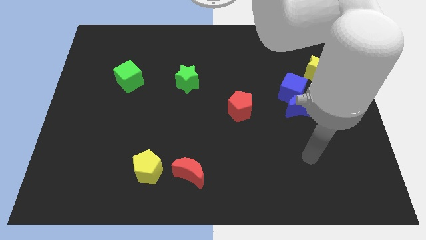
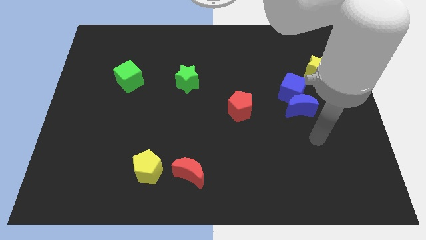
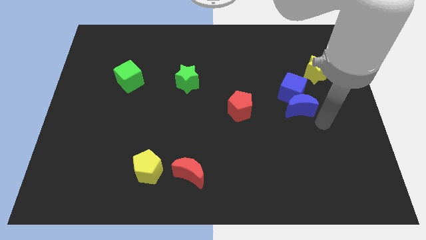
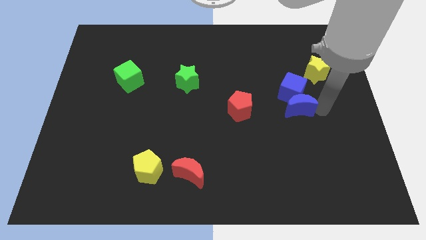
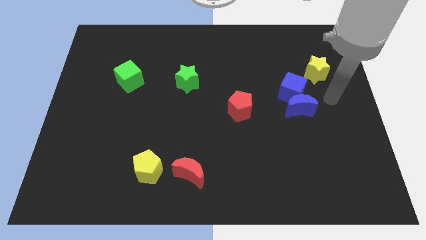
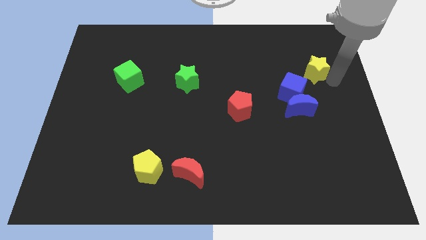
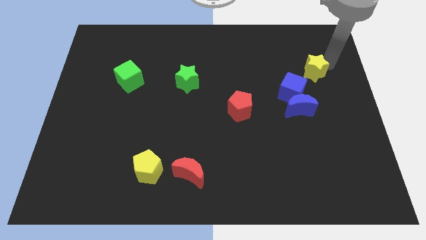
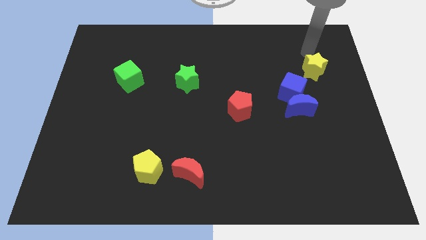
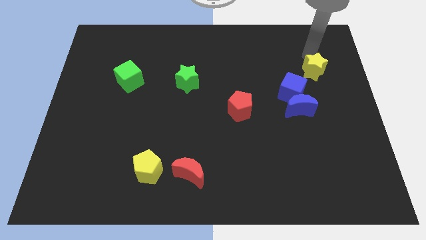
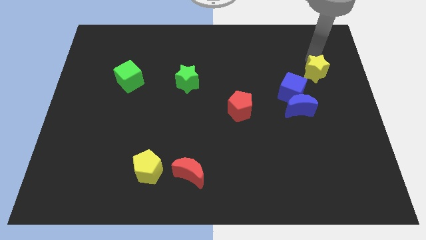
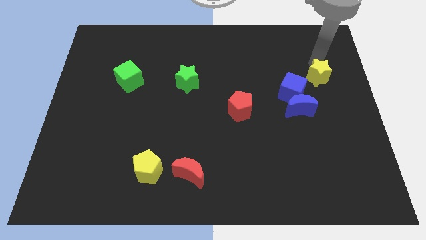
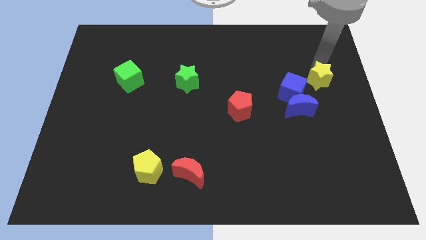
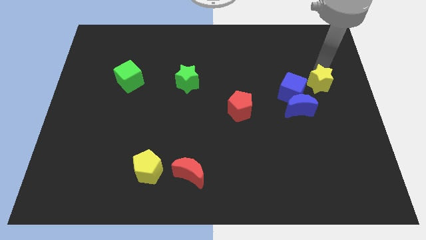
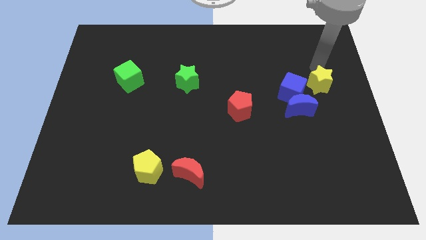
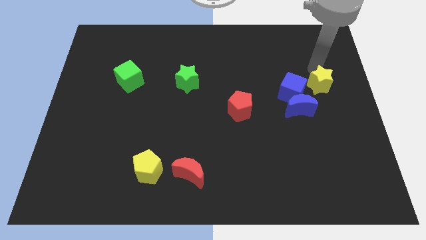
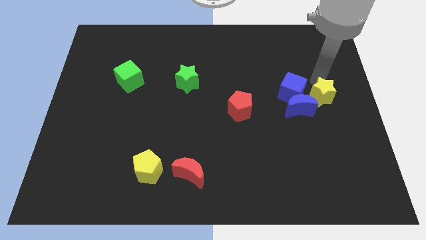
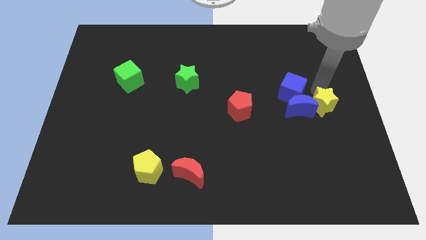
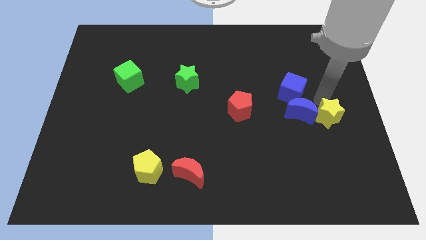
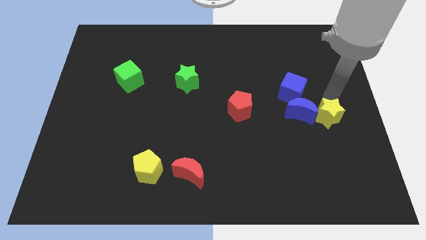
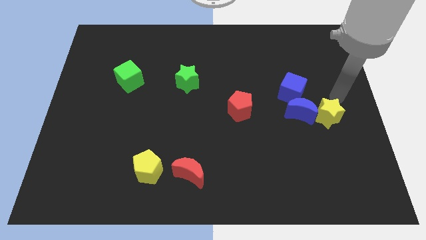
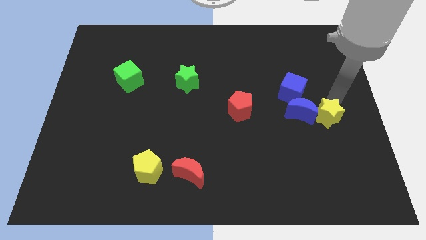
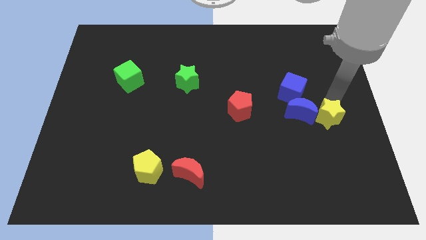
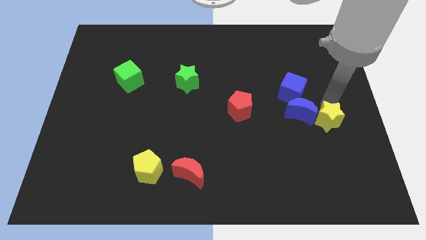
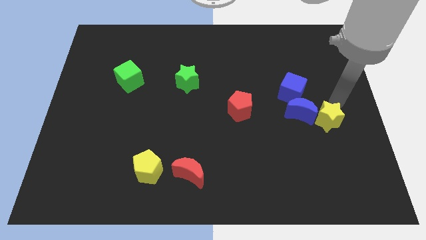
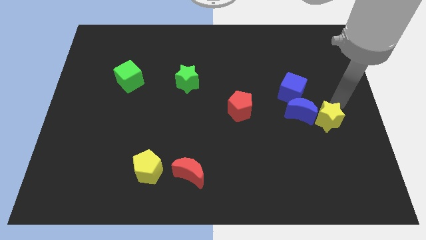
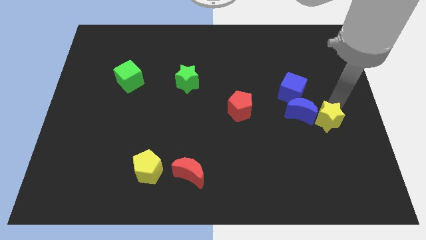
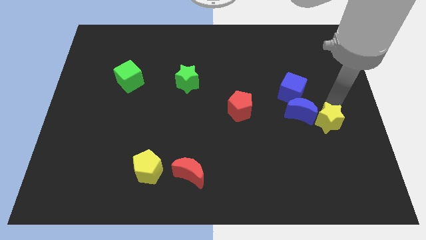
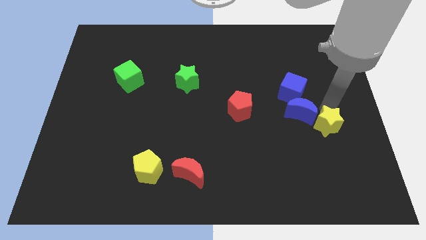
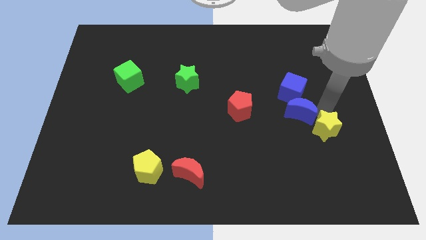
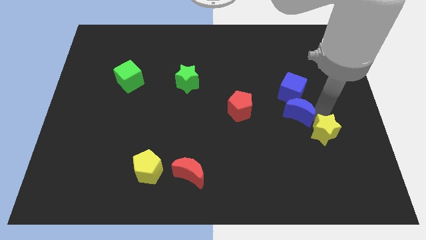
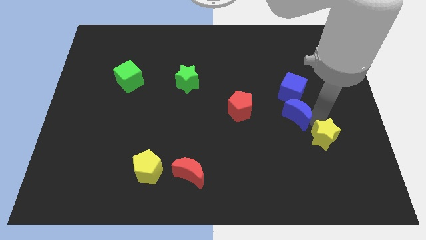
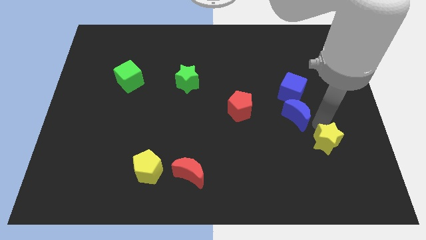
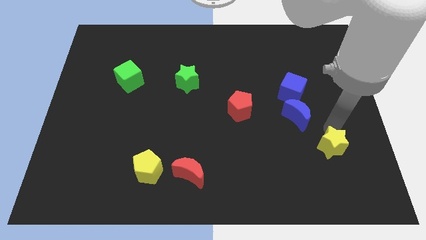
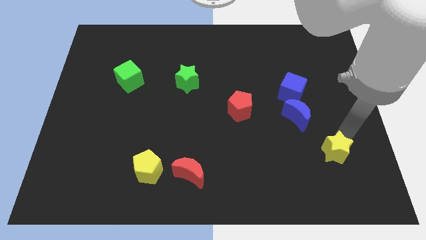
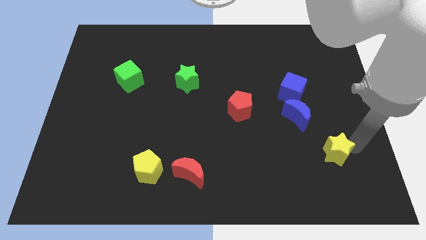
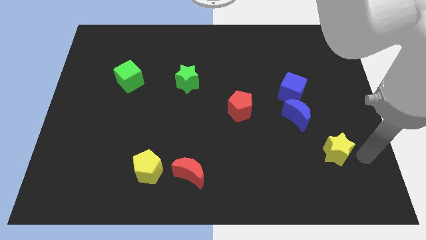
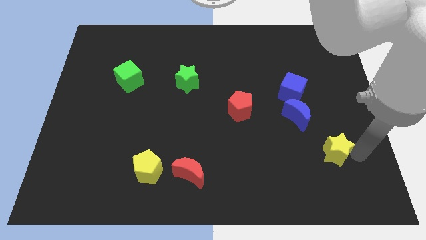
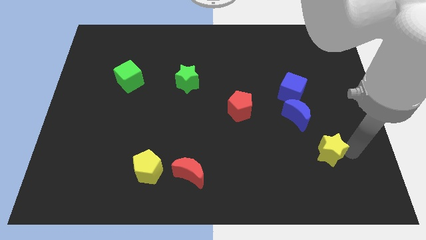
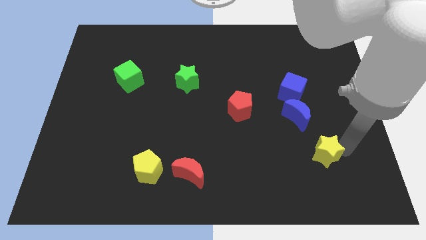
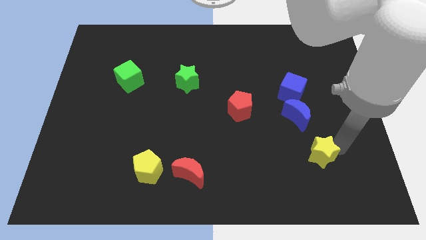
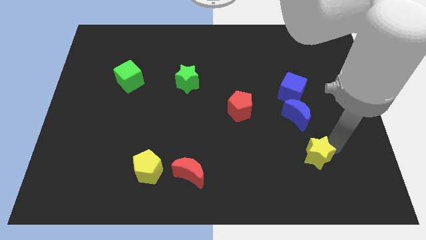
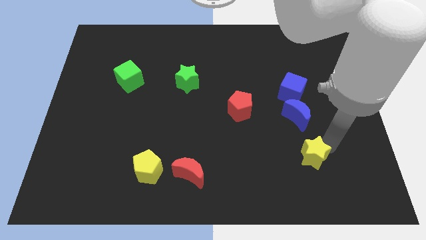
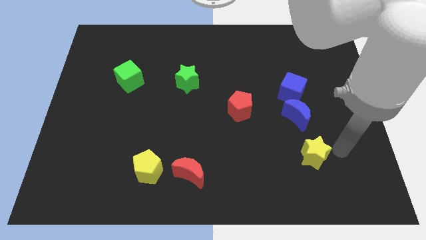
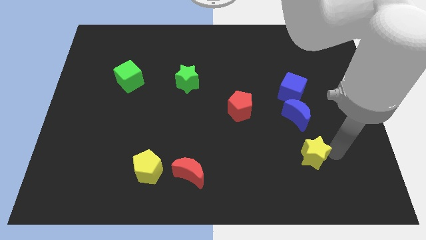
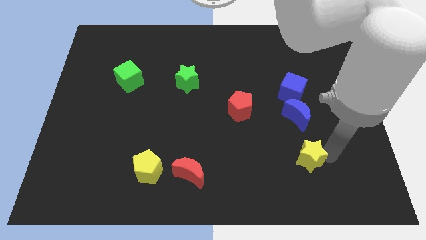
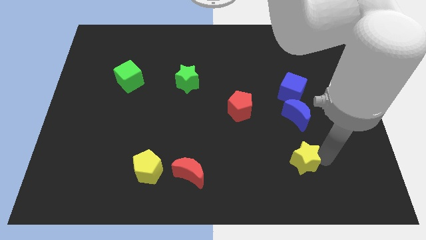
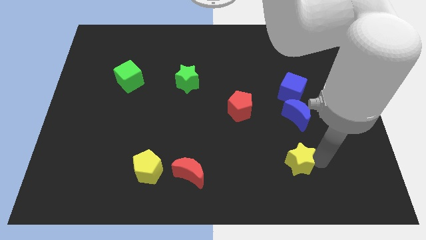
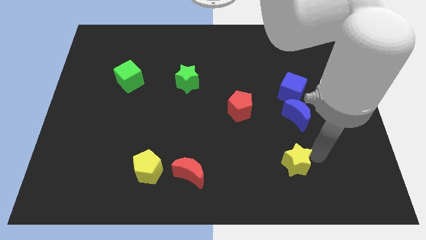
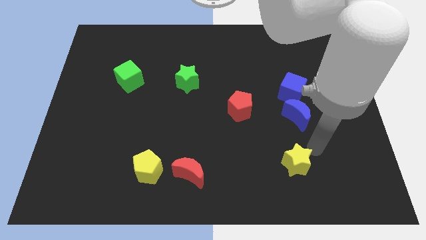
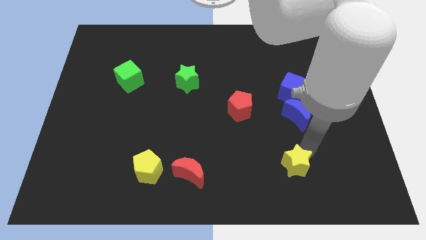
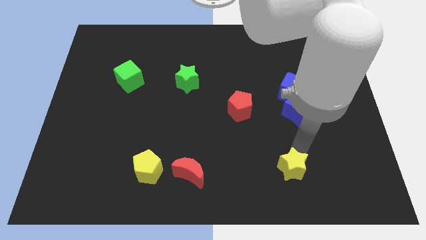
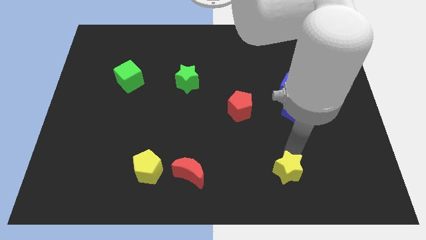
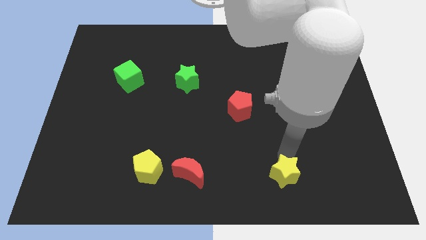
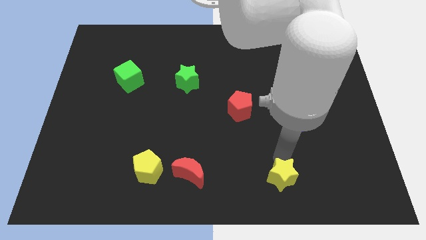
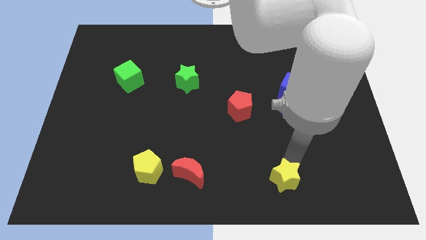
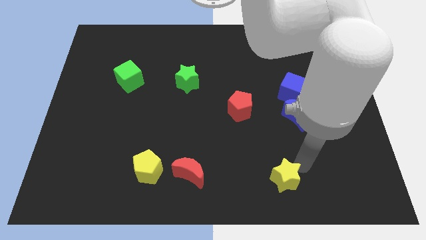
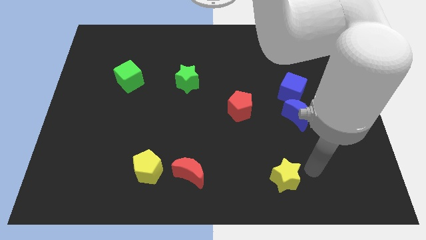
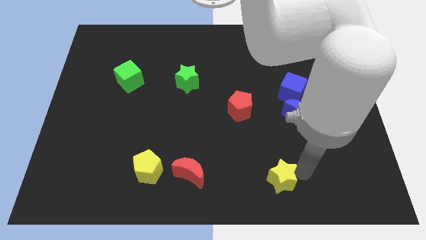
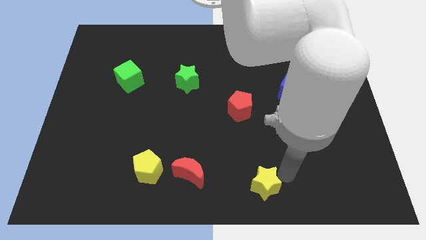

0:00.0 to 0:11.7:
slide the yellow star to the bottom side
